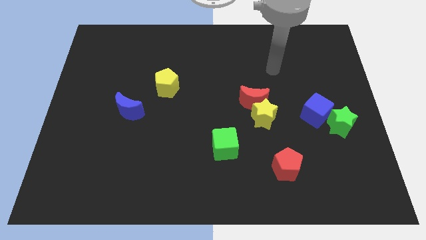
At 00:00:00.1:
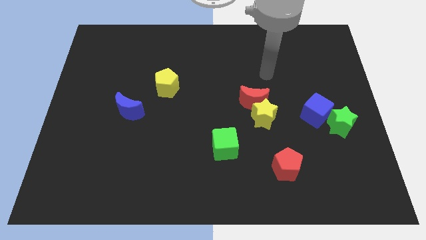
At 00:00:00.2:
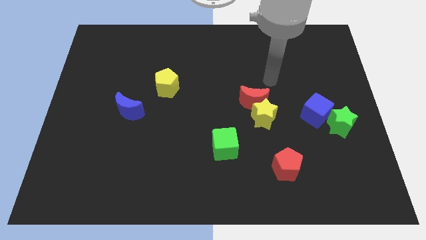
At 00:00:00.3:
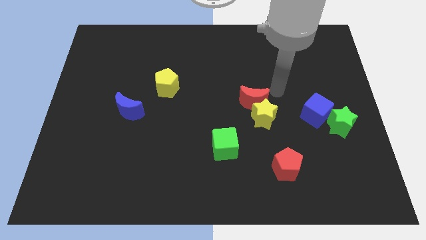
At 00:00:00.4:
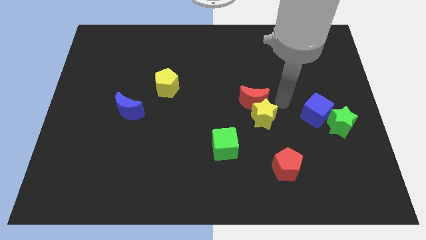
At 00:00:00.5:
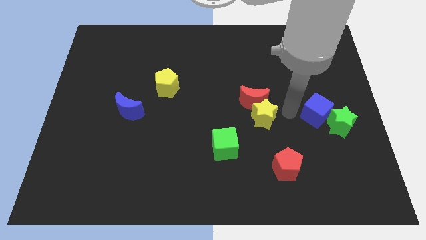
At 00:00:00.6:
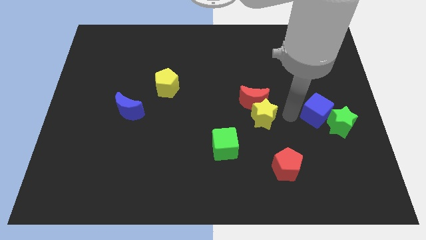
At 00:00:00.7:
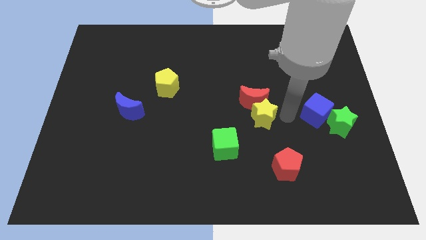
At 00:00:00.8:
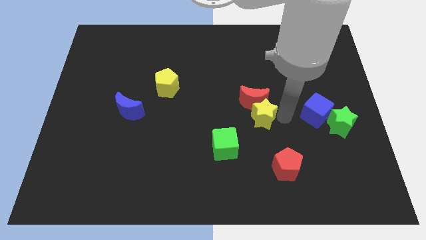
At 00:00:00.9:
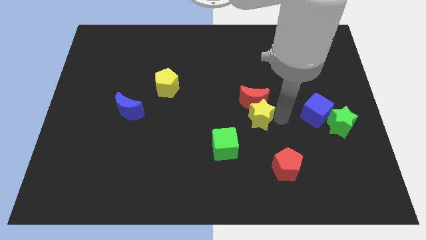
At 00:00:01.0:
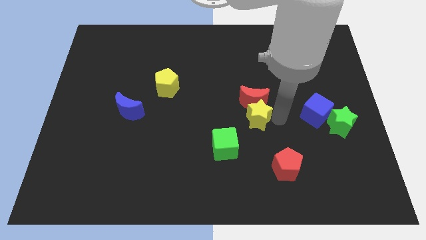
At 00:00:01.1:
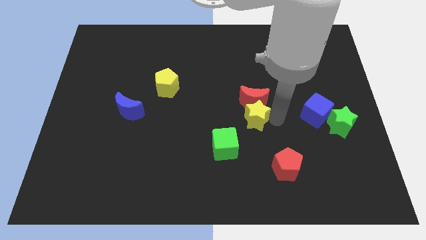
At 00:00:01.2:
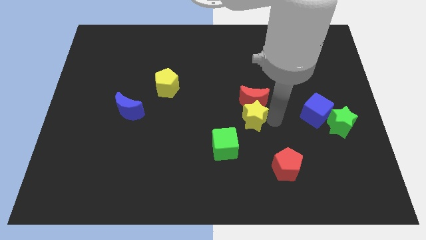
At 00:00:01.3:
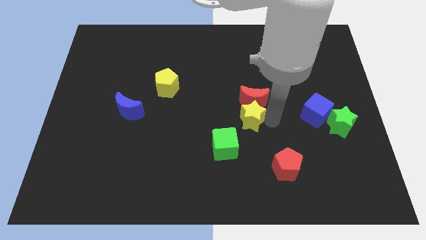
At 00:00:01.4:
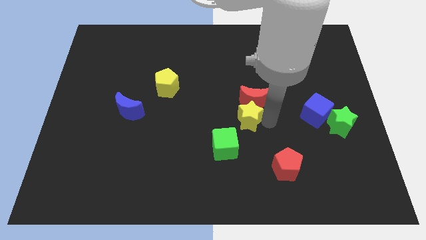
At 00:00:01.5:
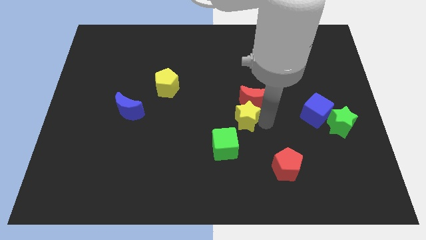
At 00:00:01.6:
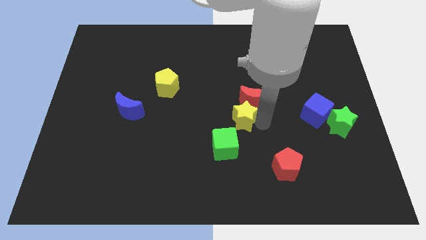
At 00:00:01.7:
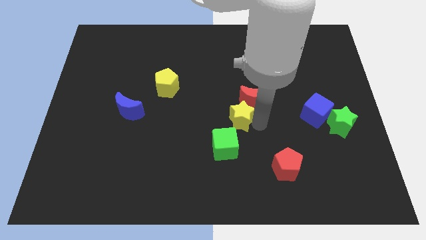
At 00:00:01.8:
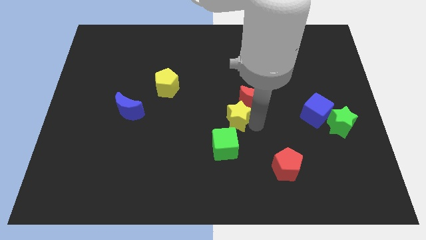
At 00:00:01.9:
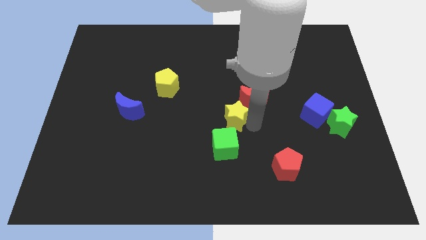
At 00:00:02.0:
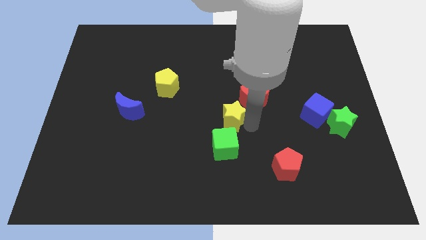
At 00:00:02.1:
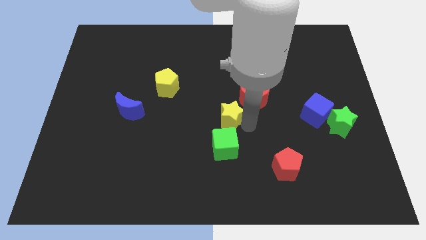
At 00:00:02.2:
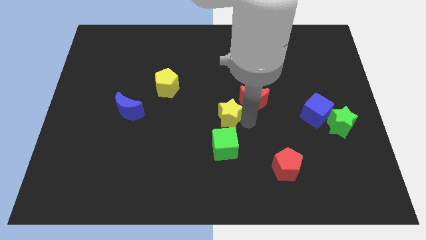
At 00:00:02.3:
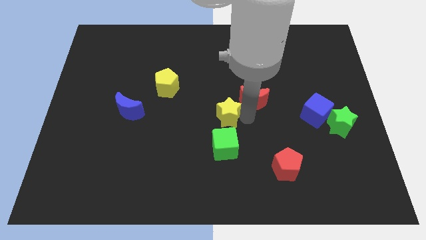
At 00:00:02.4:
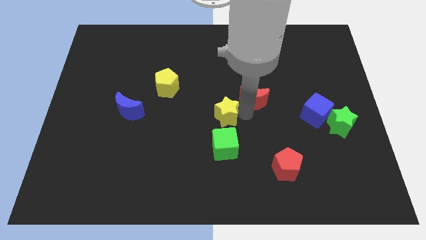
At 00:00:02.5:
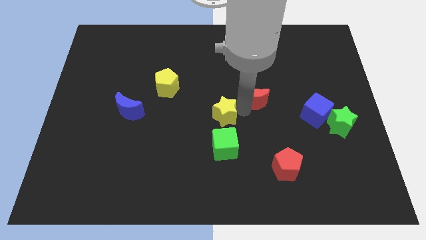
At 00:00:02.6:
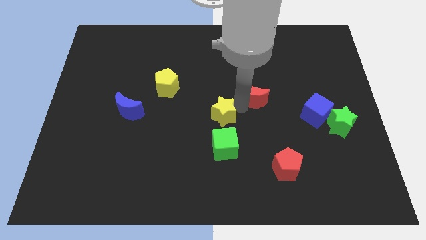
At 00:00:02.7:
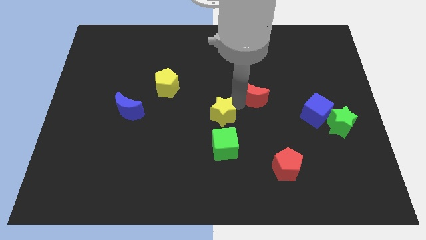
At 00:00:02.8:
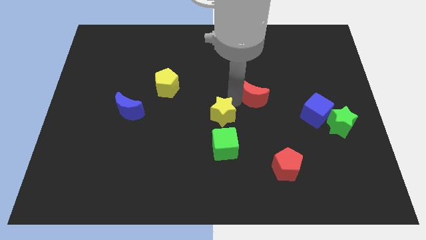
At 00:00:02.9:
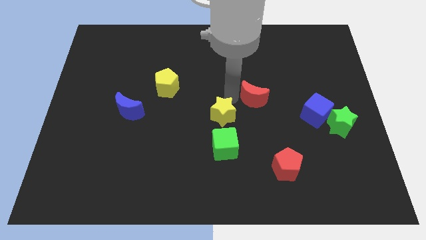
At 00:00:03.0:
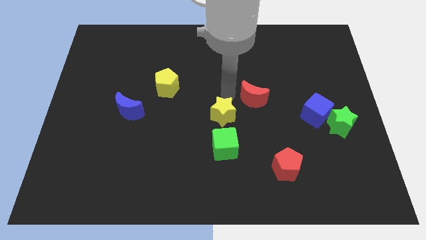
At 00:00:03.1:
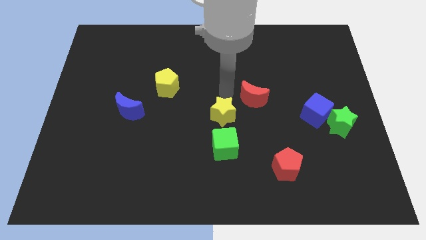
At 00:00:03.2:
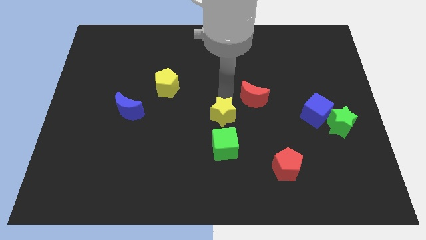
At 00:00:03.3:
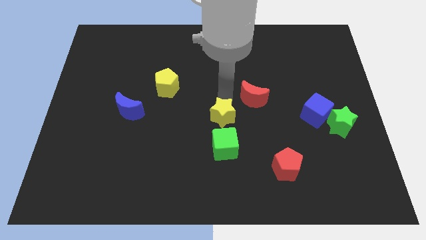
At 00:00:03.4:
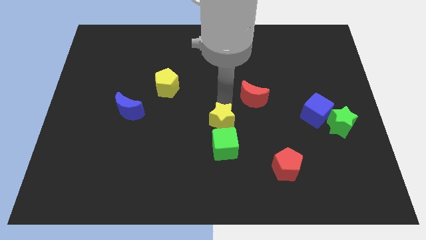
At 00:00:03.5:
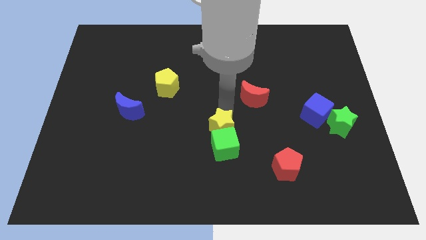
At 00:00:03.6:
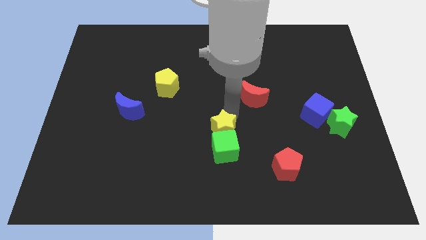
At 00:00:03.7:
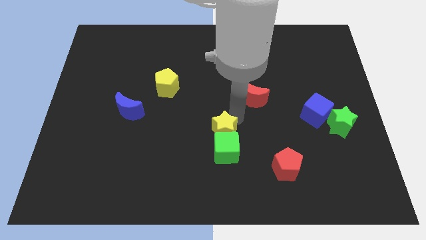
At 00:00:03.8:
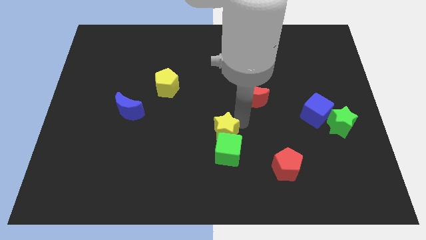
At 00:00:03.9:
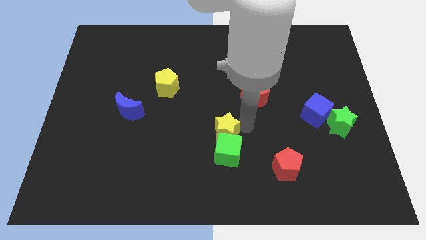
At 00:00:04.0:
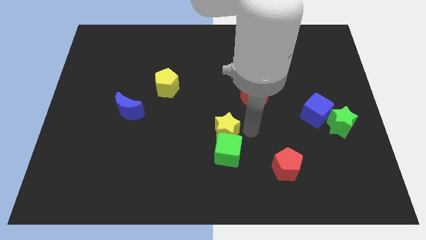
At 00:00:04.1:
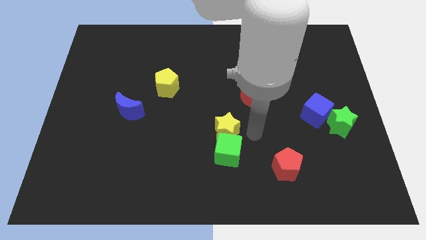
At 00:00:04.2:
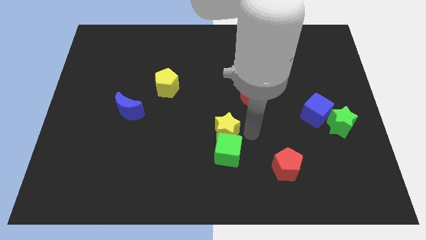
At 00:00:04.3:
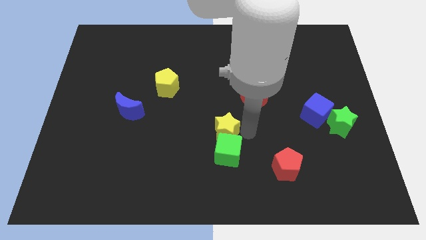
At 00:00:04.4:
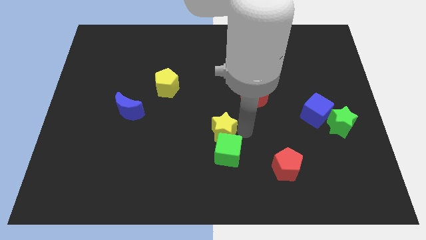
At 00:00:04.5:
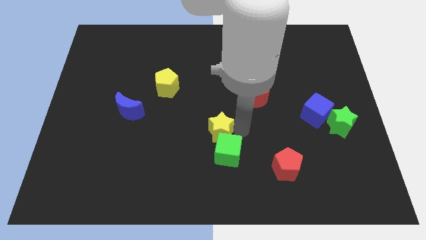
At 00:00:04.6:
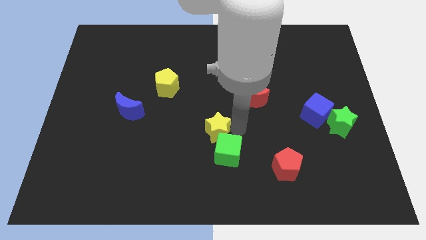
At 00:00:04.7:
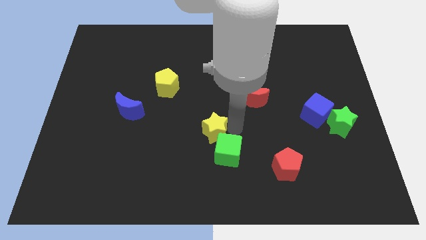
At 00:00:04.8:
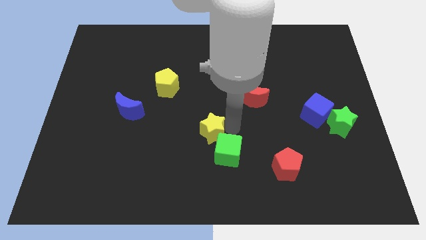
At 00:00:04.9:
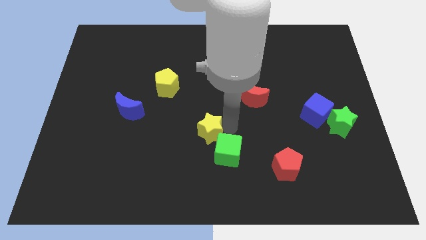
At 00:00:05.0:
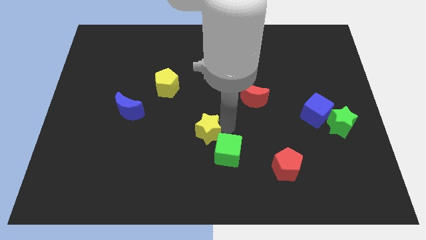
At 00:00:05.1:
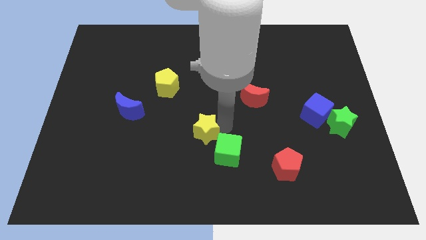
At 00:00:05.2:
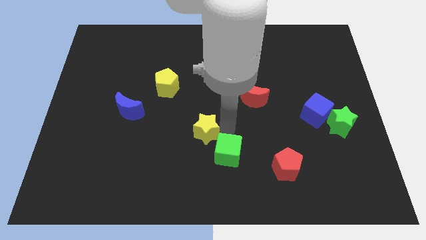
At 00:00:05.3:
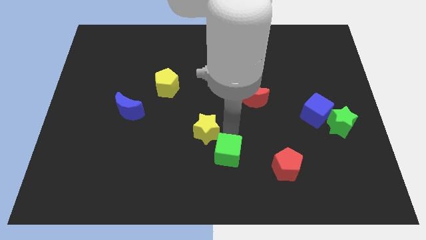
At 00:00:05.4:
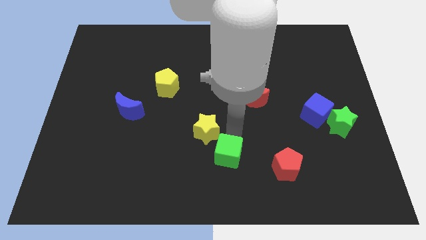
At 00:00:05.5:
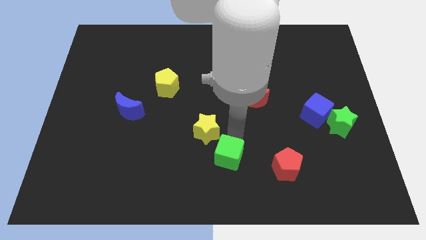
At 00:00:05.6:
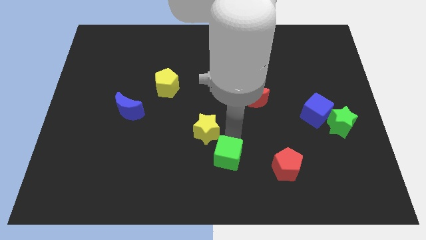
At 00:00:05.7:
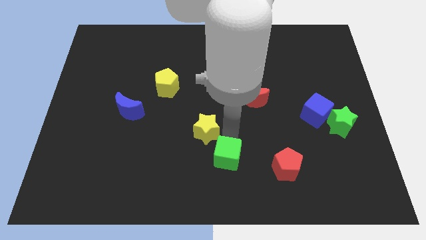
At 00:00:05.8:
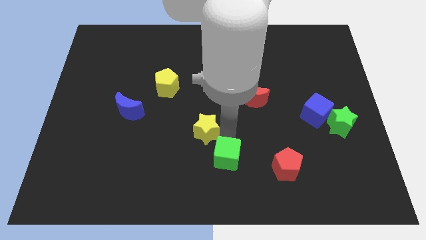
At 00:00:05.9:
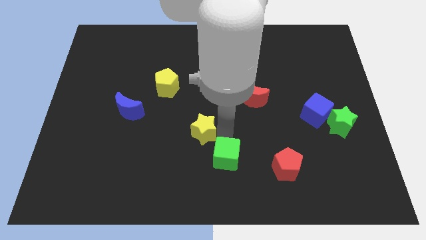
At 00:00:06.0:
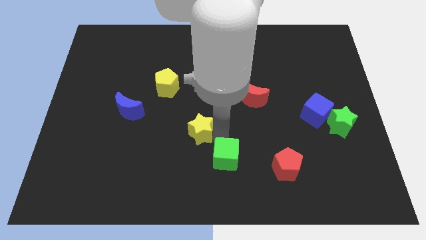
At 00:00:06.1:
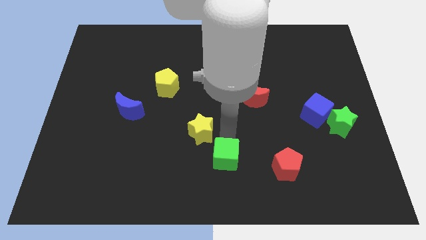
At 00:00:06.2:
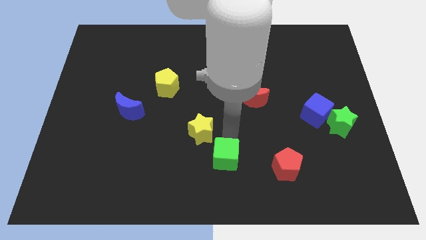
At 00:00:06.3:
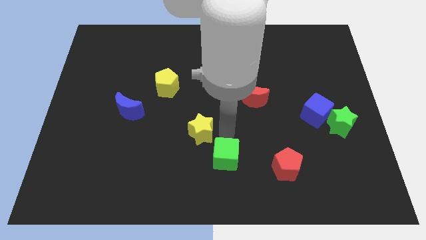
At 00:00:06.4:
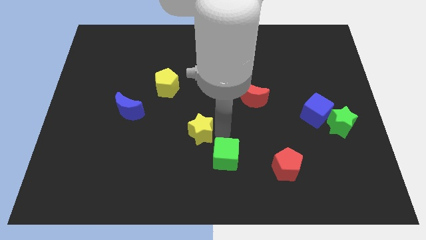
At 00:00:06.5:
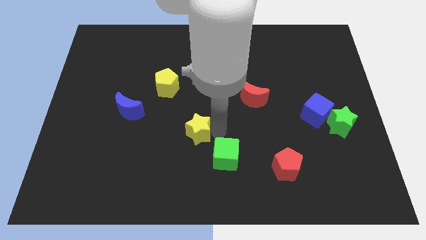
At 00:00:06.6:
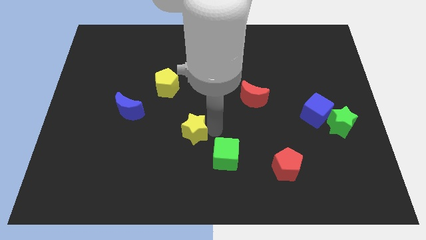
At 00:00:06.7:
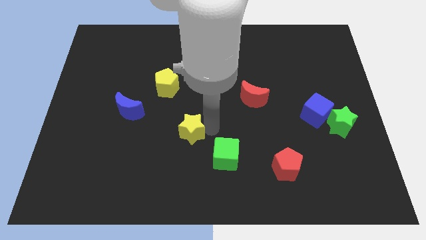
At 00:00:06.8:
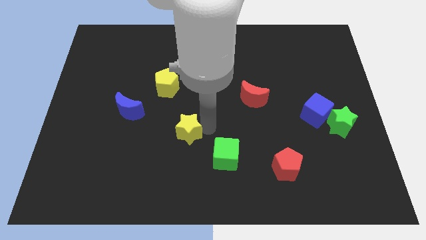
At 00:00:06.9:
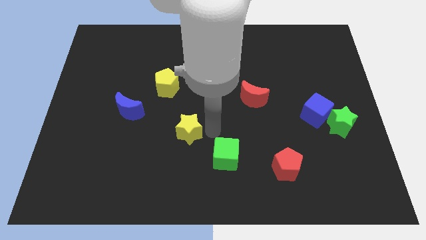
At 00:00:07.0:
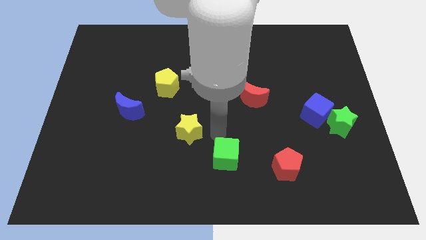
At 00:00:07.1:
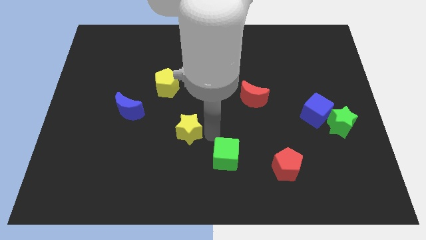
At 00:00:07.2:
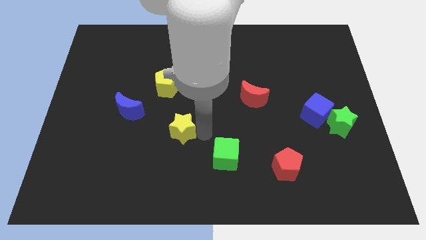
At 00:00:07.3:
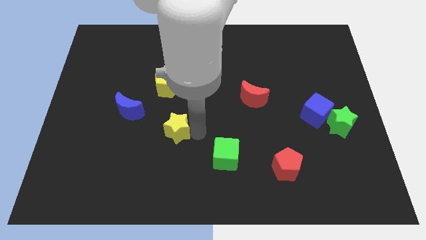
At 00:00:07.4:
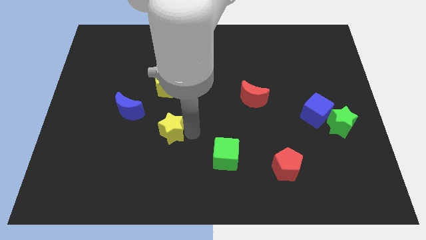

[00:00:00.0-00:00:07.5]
slide the yellow star to the bottom right side of the blue moon
